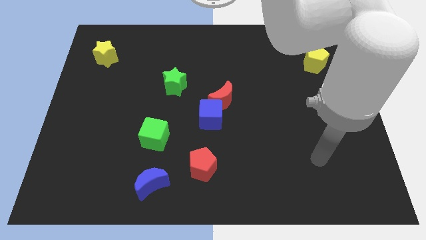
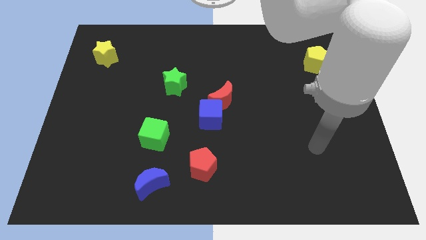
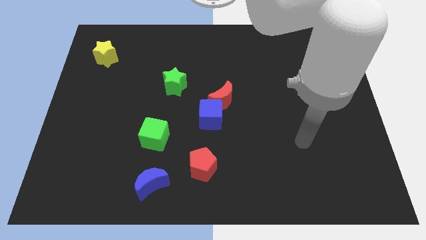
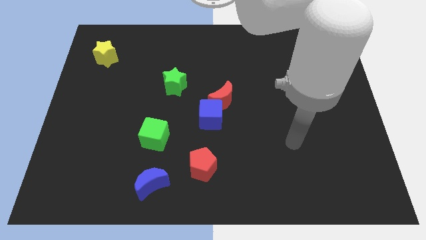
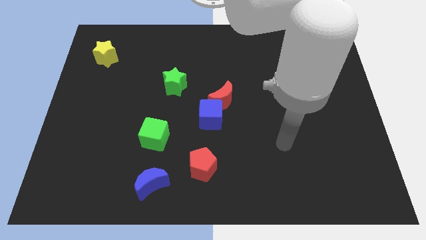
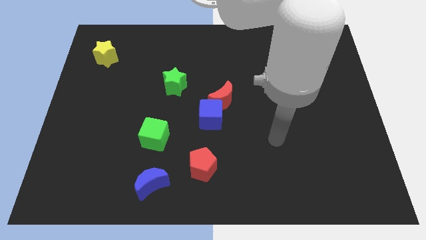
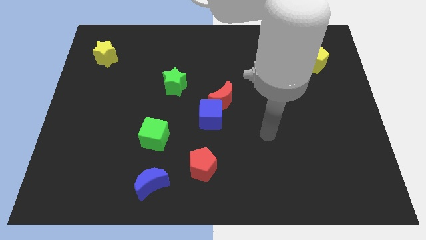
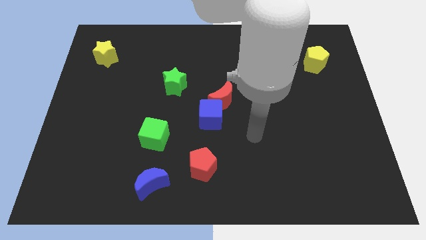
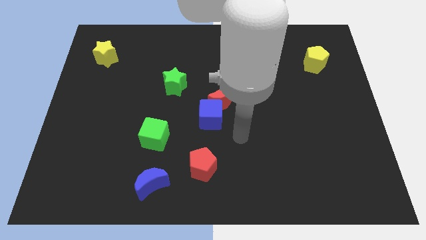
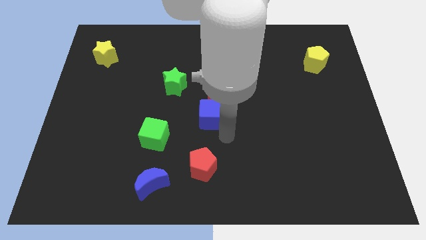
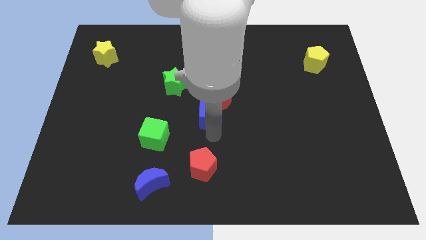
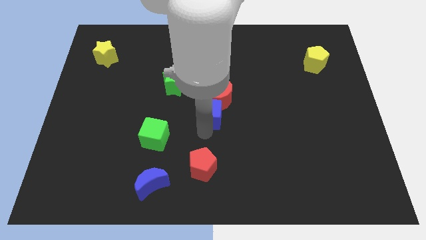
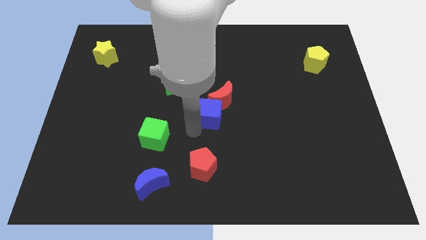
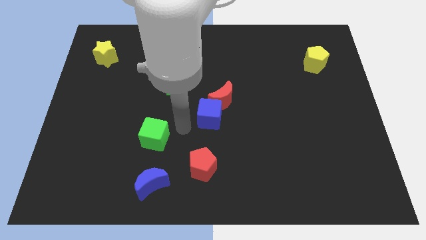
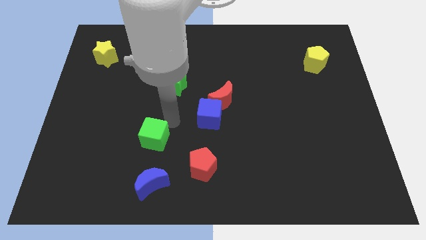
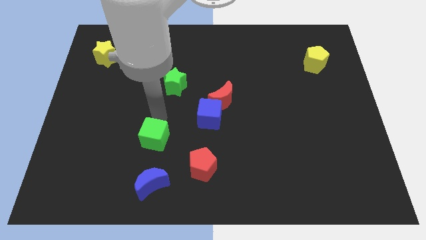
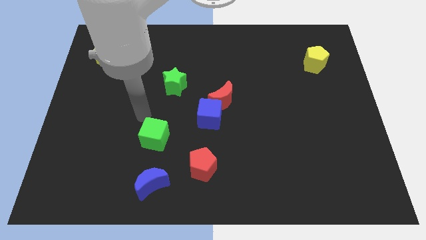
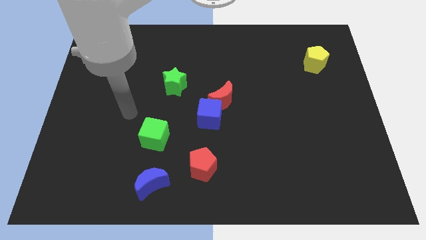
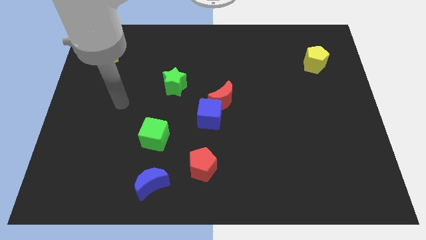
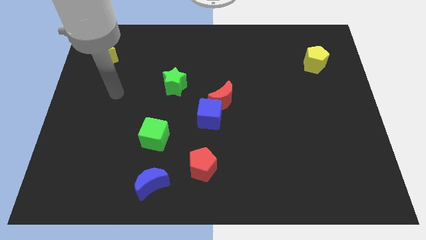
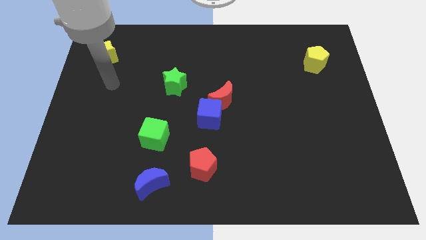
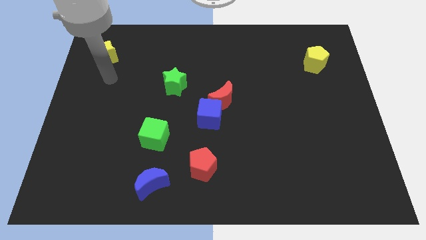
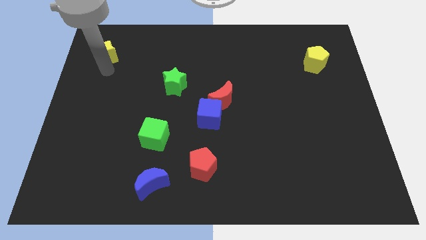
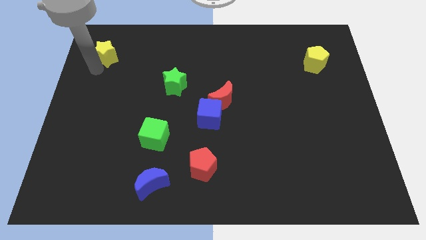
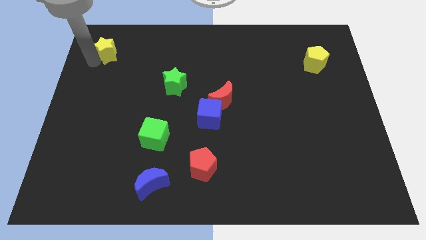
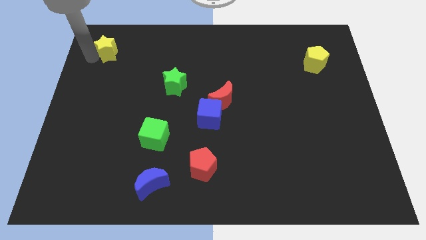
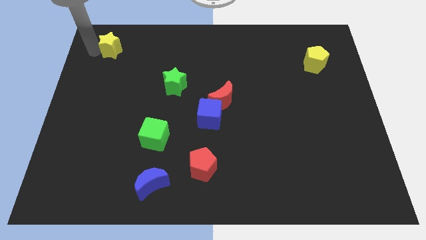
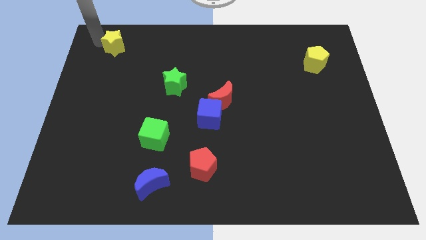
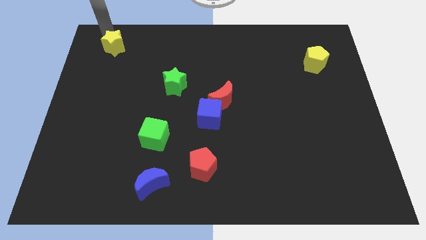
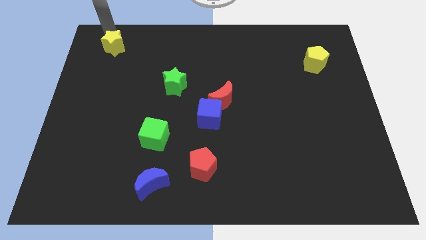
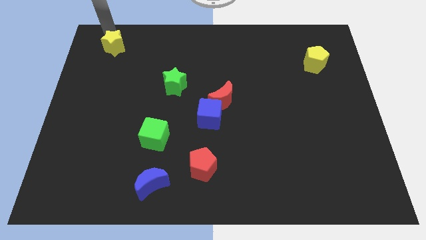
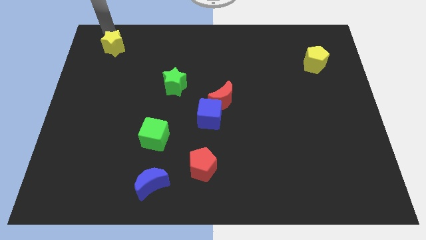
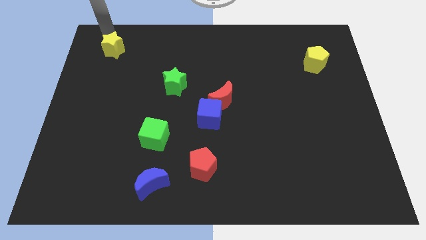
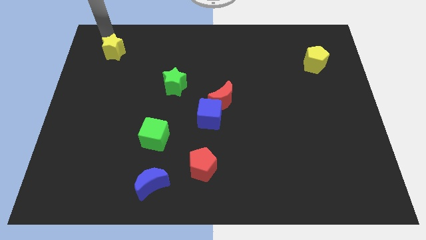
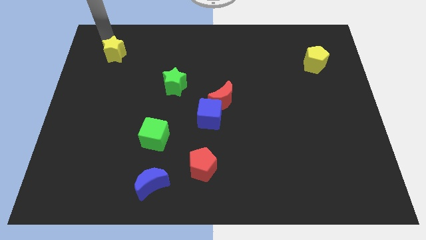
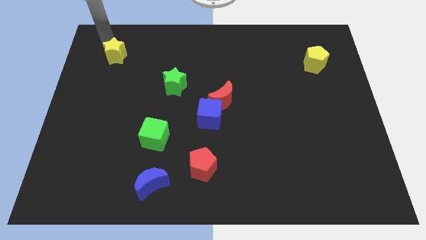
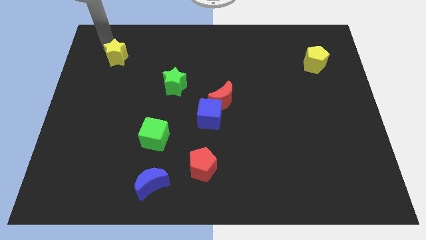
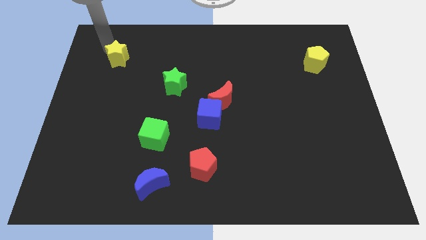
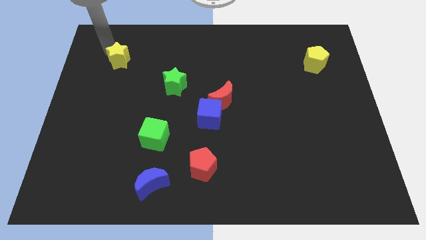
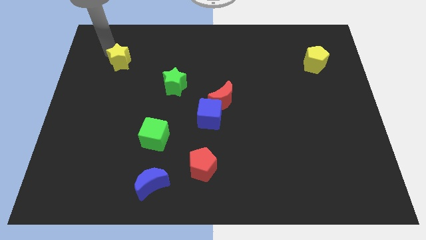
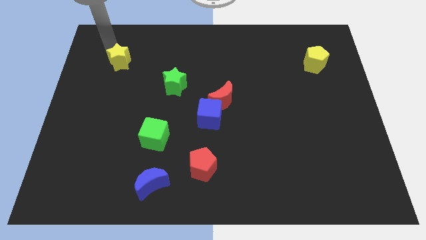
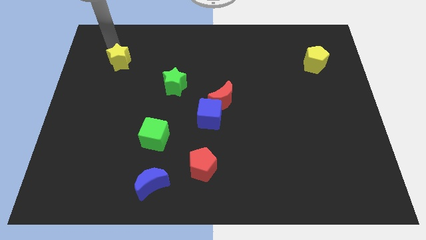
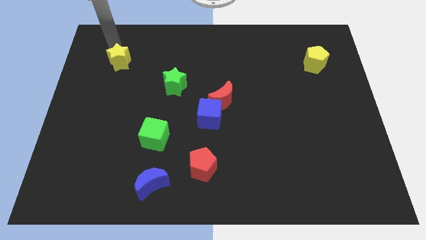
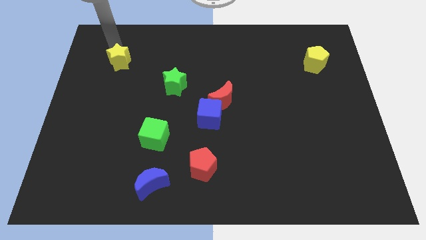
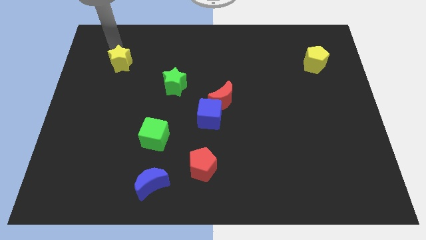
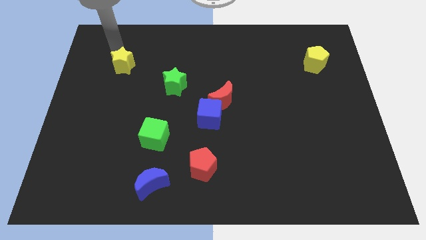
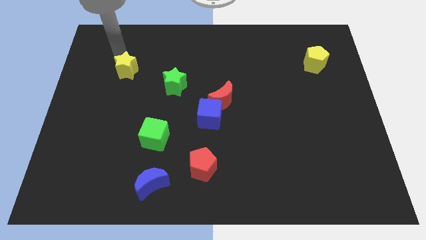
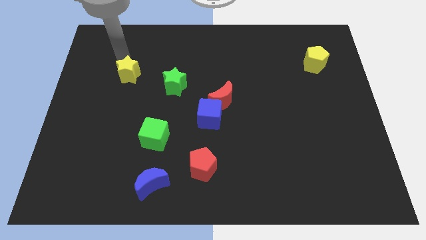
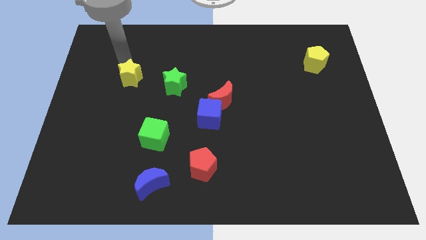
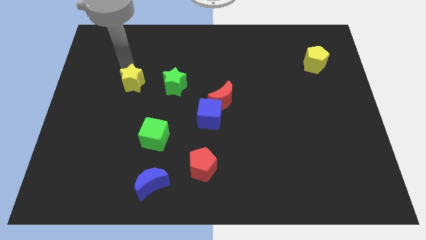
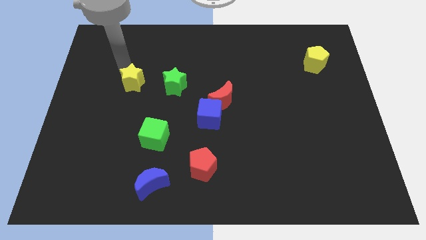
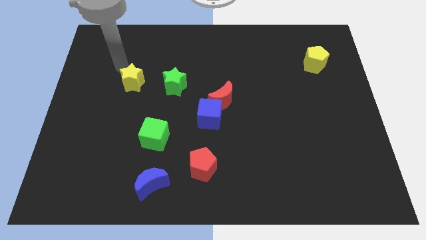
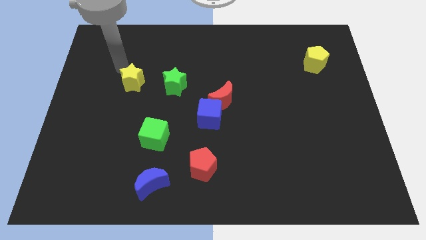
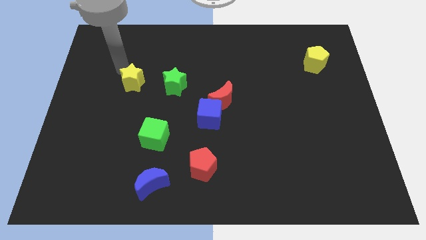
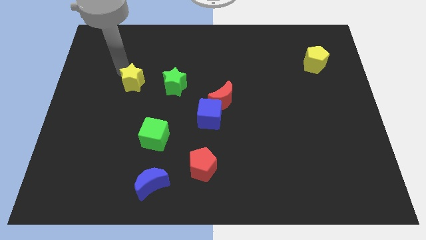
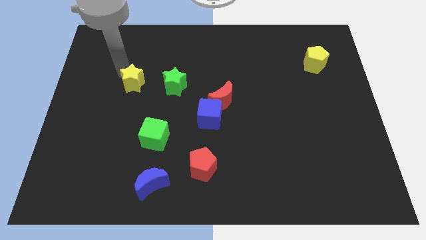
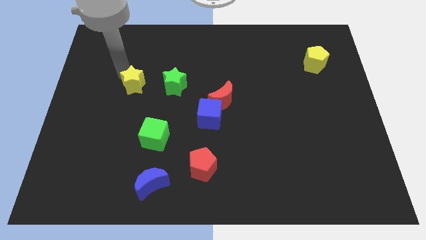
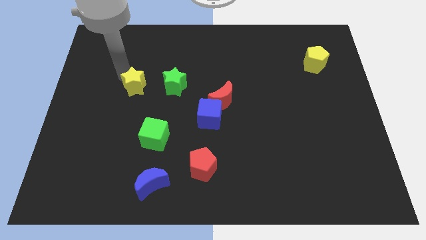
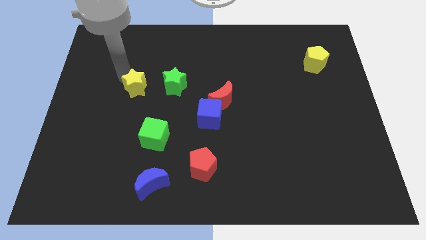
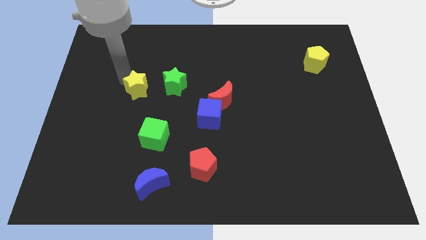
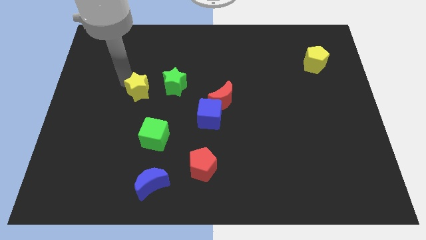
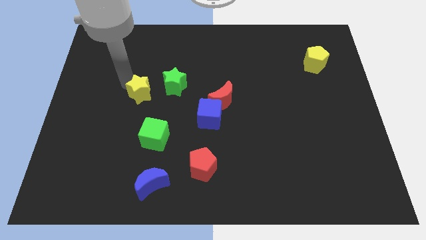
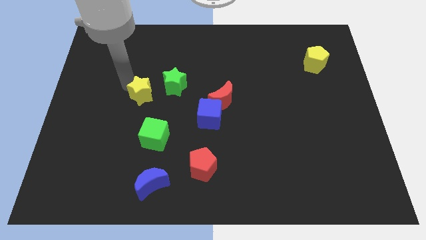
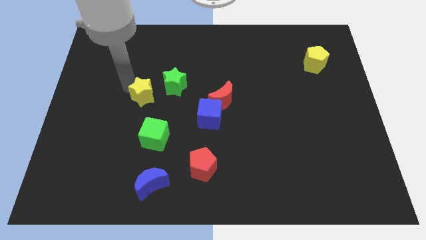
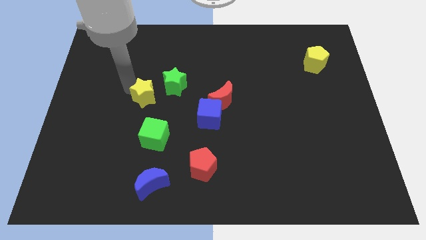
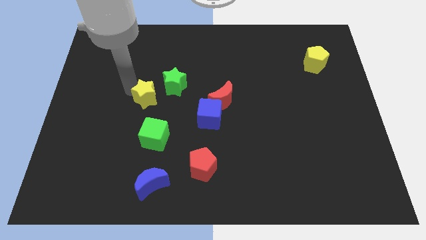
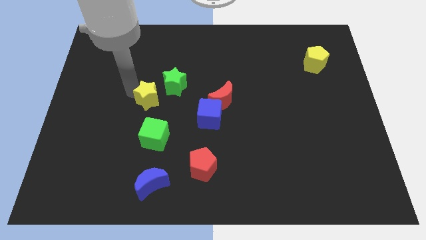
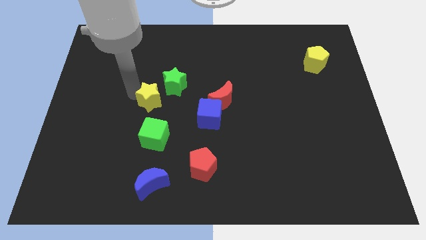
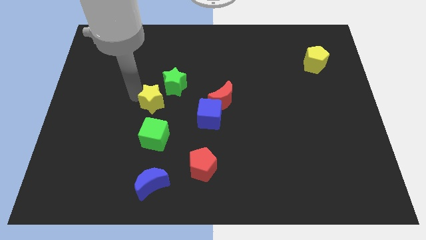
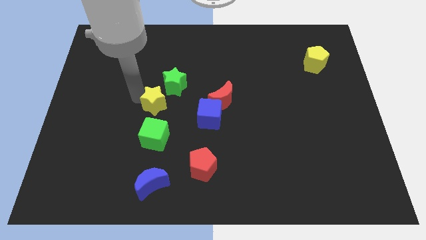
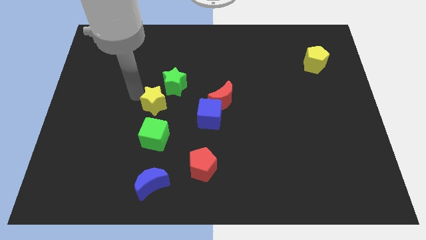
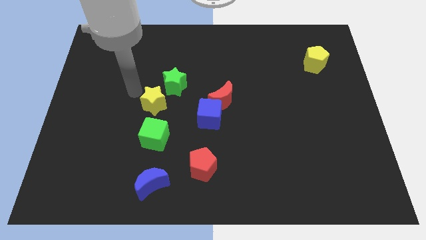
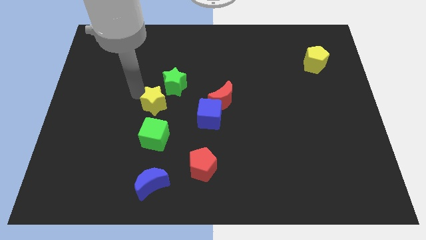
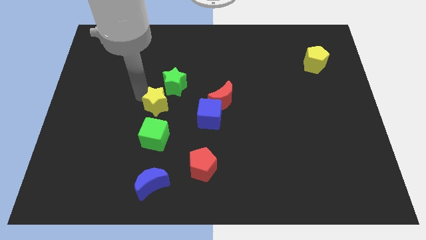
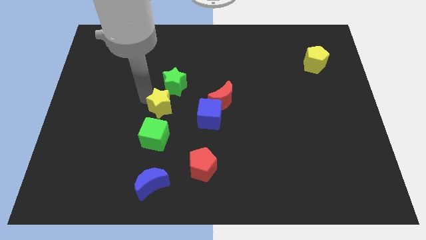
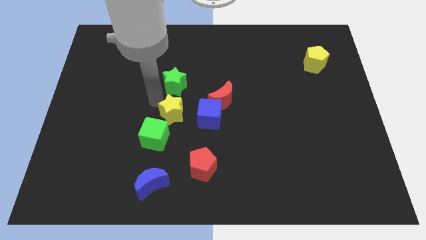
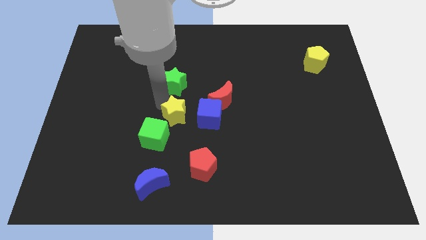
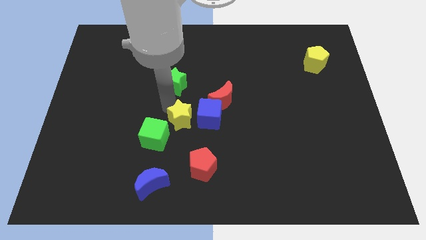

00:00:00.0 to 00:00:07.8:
slide the yellow star to the bottom left of the blue cube
